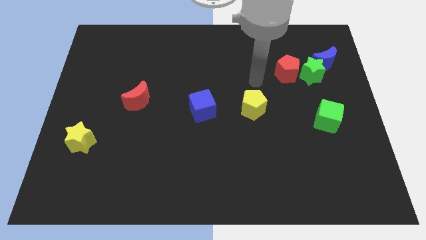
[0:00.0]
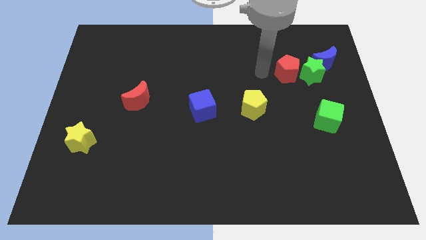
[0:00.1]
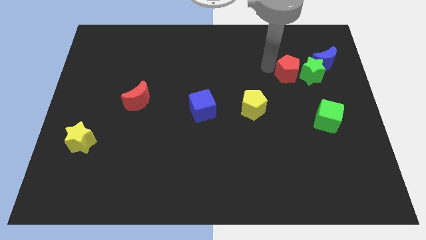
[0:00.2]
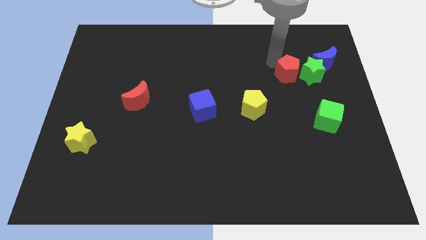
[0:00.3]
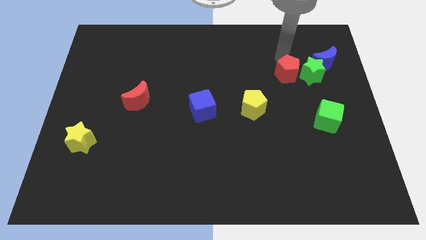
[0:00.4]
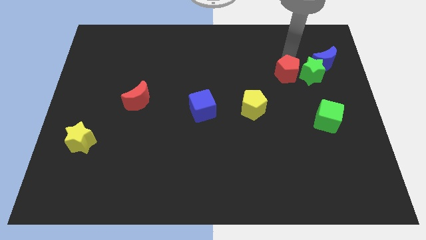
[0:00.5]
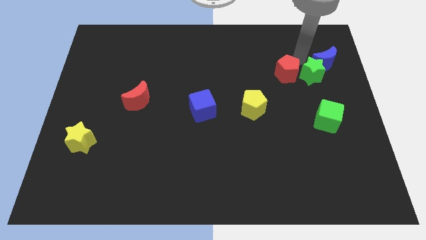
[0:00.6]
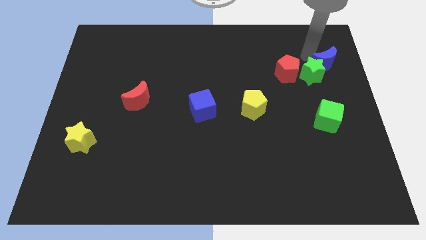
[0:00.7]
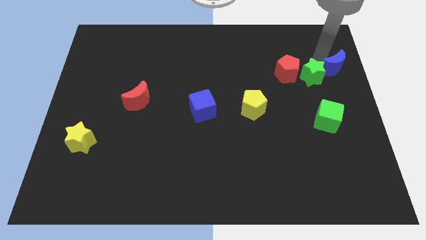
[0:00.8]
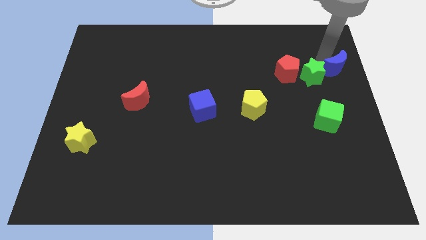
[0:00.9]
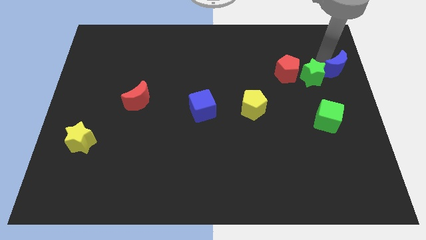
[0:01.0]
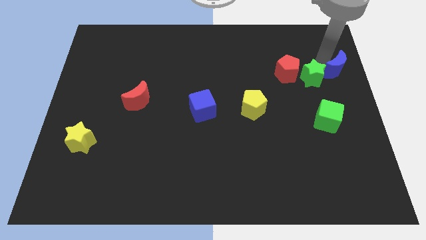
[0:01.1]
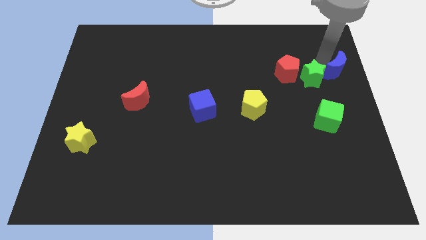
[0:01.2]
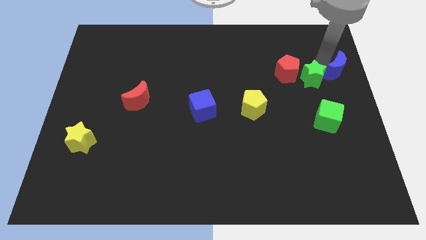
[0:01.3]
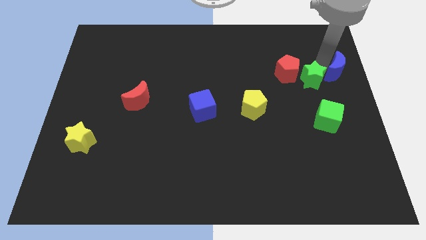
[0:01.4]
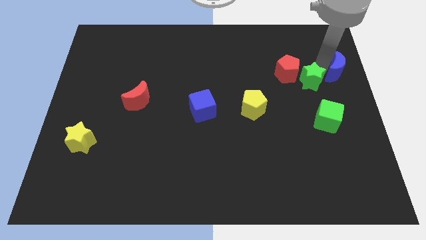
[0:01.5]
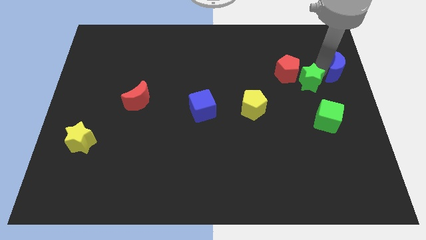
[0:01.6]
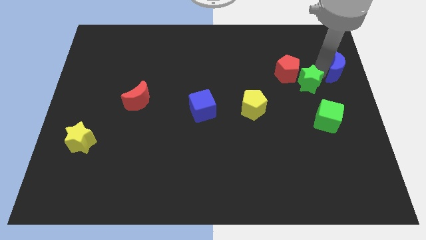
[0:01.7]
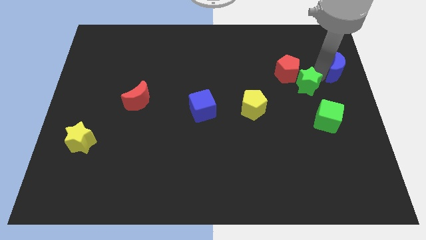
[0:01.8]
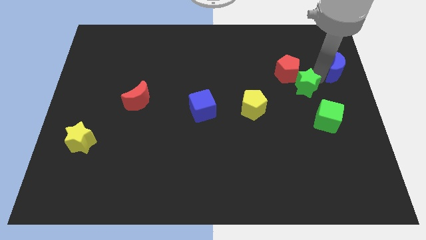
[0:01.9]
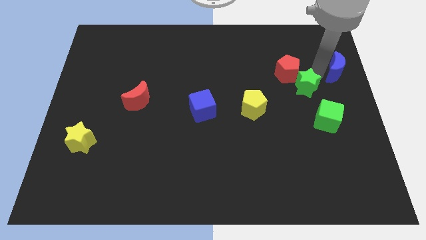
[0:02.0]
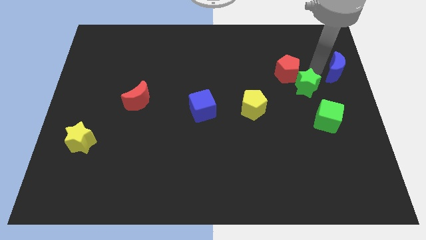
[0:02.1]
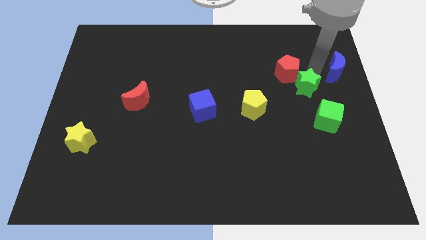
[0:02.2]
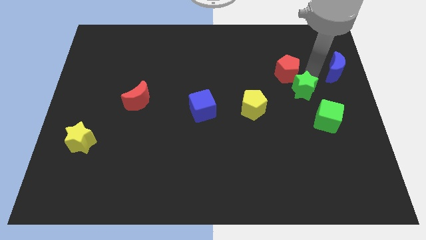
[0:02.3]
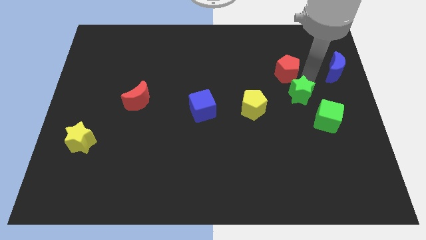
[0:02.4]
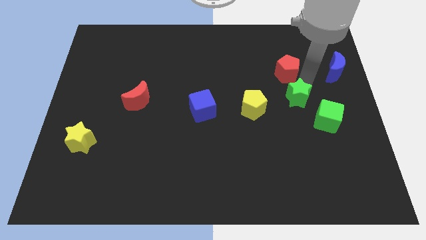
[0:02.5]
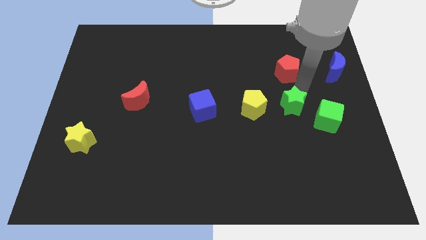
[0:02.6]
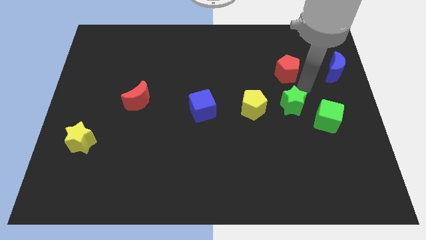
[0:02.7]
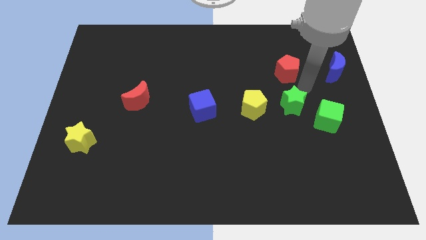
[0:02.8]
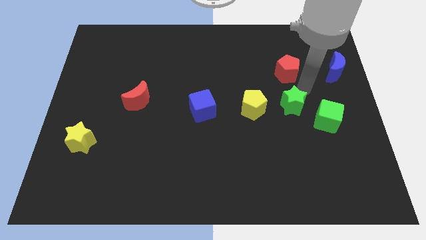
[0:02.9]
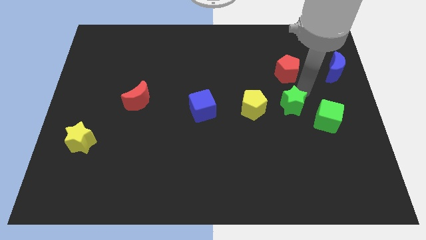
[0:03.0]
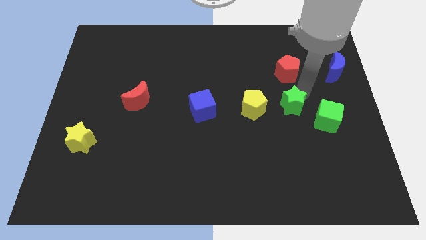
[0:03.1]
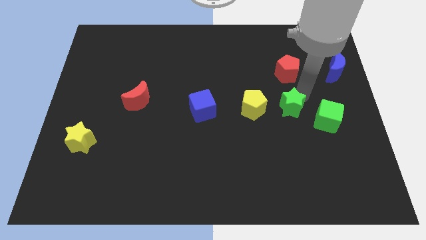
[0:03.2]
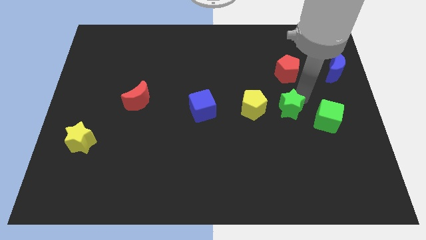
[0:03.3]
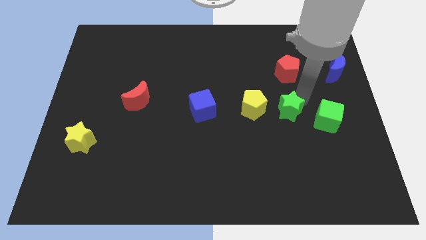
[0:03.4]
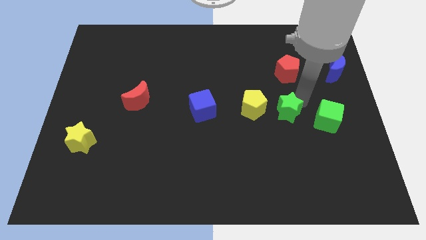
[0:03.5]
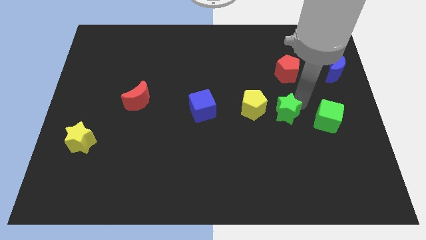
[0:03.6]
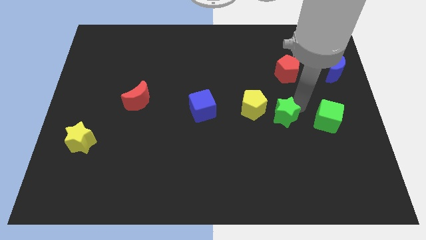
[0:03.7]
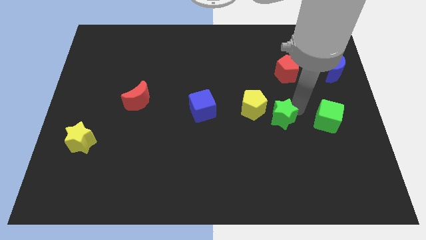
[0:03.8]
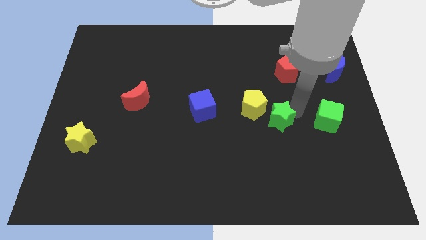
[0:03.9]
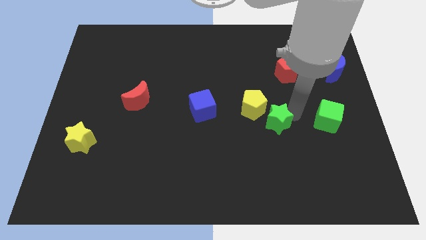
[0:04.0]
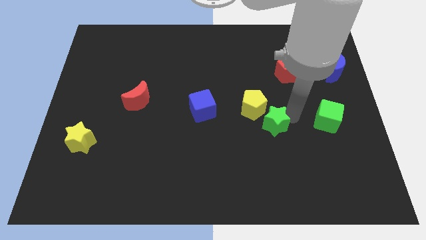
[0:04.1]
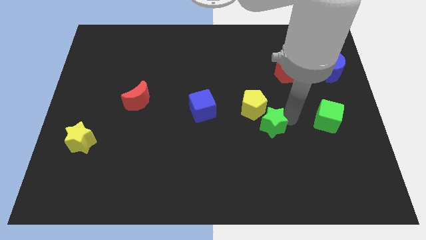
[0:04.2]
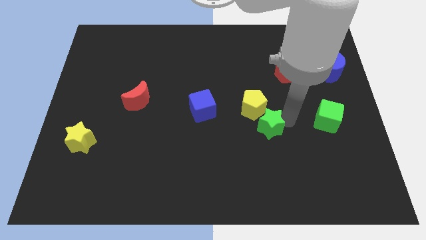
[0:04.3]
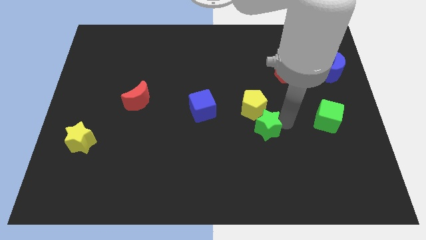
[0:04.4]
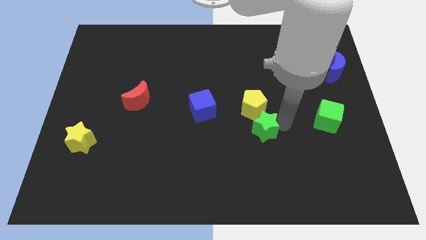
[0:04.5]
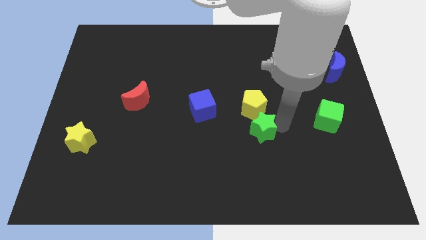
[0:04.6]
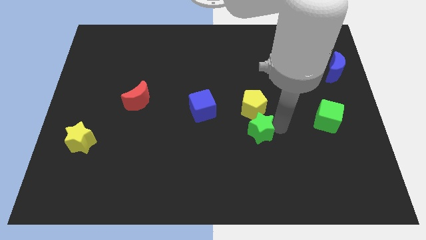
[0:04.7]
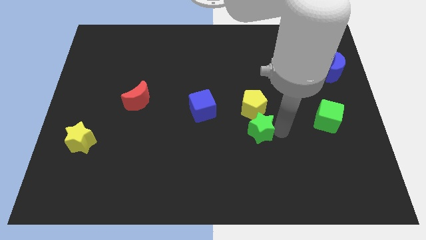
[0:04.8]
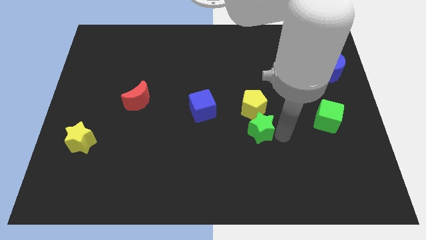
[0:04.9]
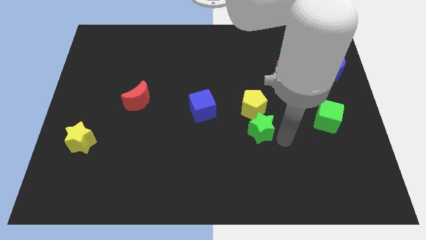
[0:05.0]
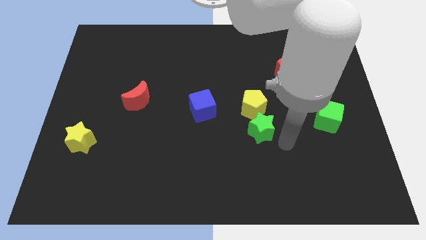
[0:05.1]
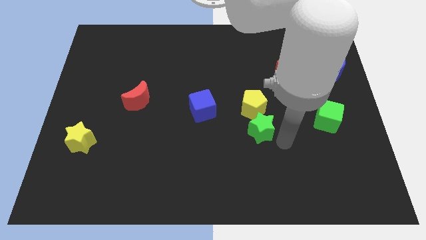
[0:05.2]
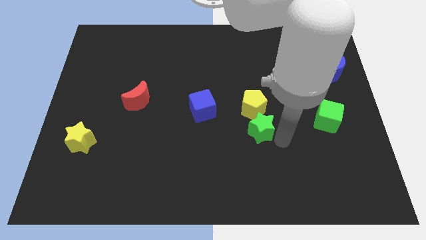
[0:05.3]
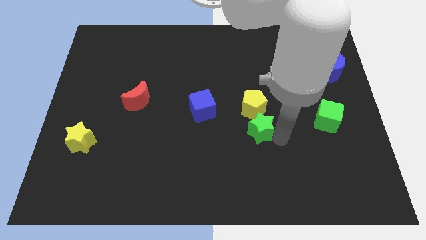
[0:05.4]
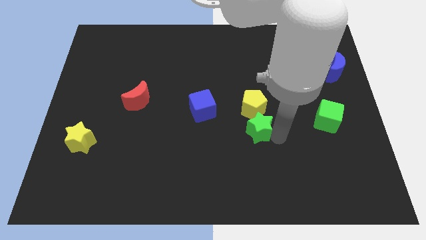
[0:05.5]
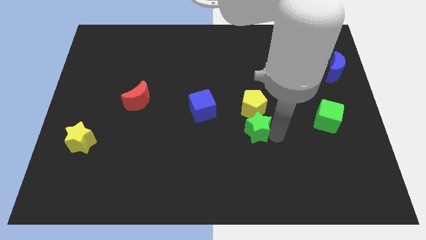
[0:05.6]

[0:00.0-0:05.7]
put the green star to the bottom left side of the yellow pentagon

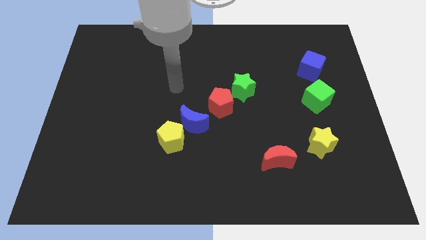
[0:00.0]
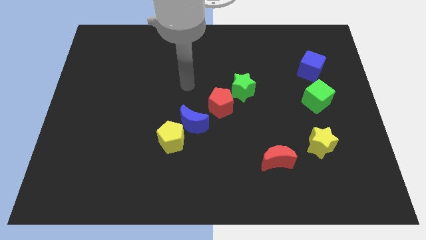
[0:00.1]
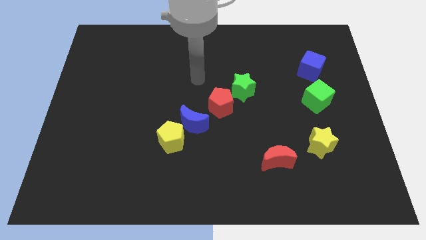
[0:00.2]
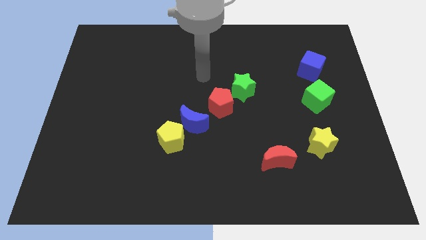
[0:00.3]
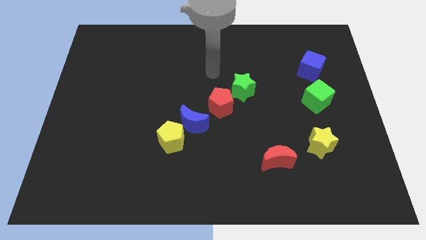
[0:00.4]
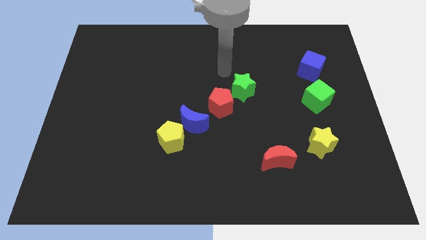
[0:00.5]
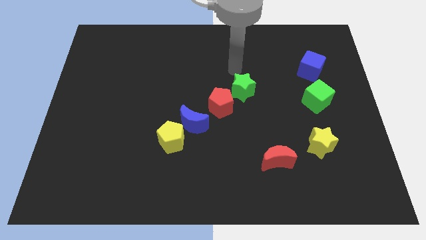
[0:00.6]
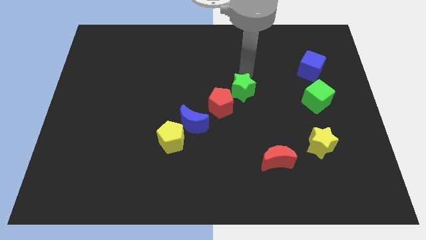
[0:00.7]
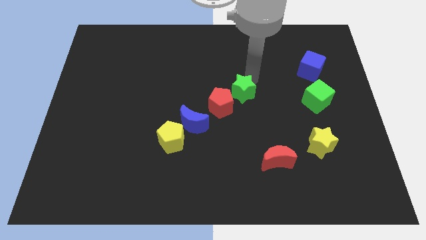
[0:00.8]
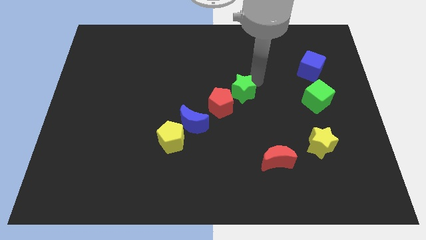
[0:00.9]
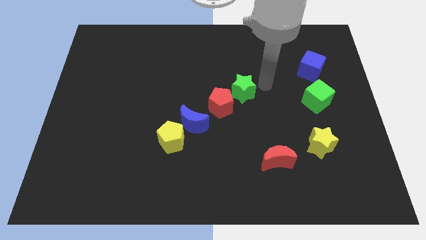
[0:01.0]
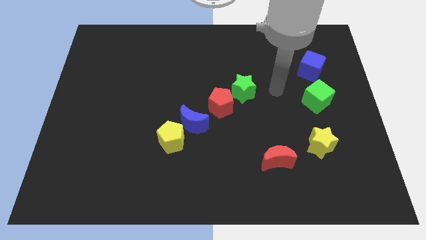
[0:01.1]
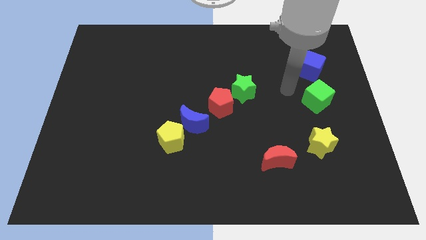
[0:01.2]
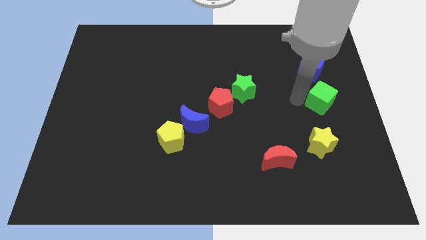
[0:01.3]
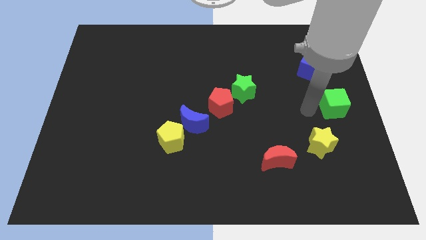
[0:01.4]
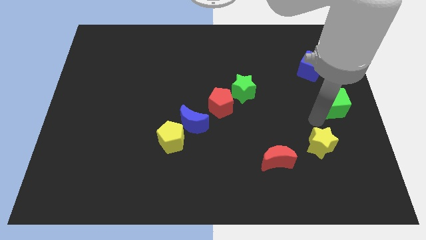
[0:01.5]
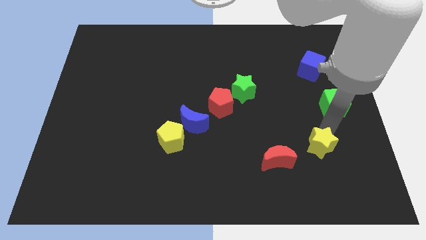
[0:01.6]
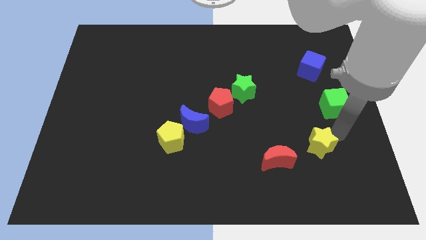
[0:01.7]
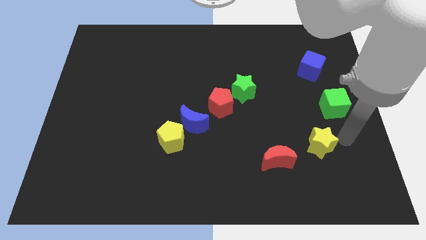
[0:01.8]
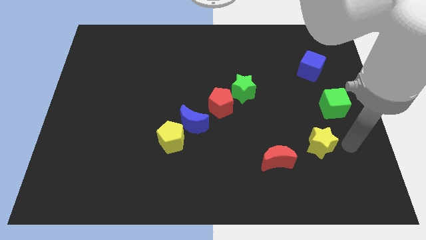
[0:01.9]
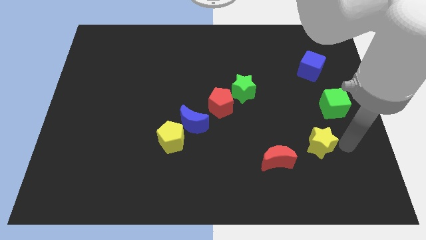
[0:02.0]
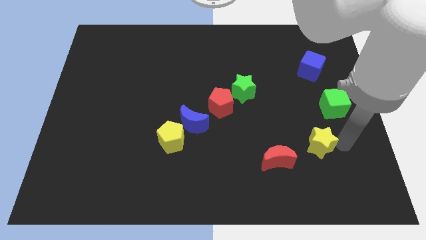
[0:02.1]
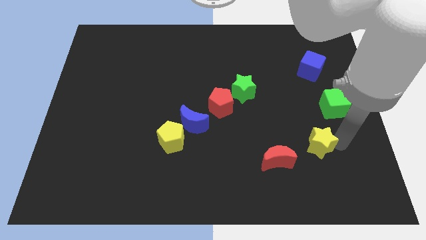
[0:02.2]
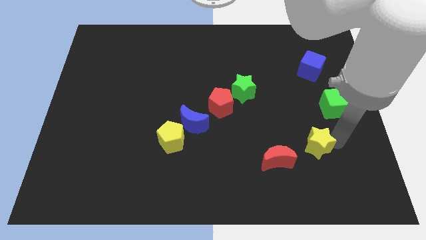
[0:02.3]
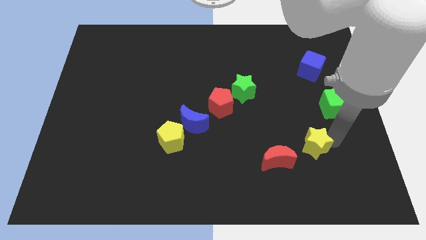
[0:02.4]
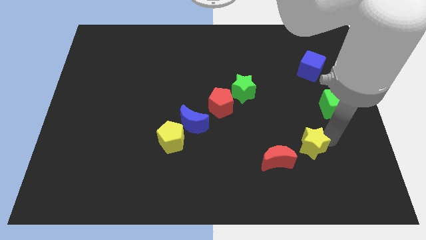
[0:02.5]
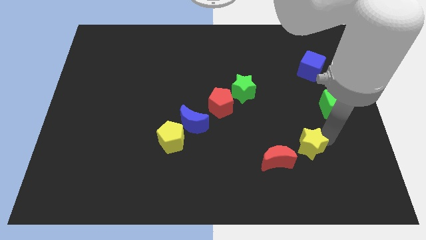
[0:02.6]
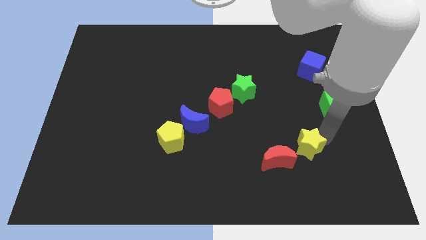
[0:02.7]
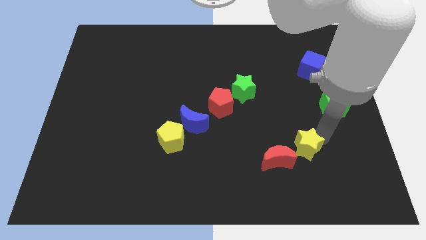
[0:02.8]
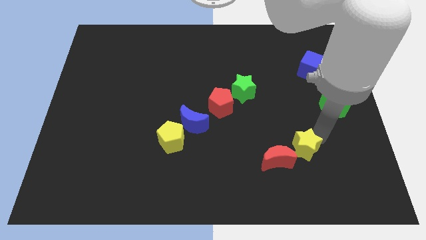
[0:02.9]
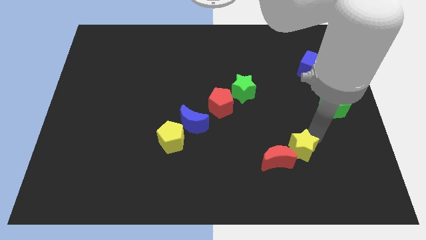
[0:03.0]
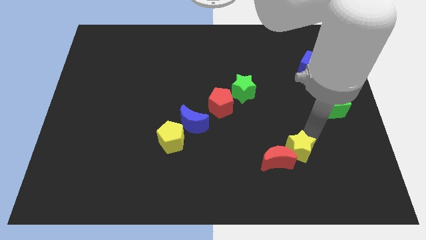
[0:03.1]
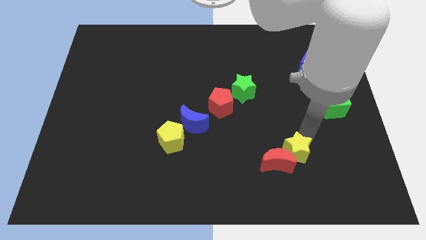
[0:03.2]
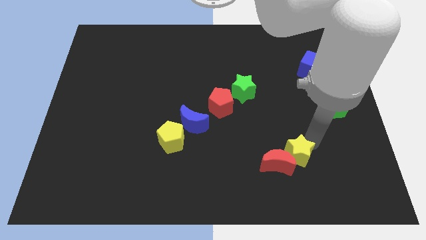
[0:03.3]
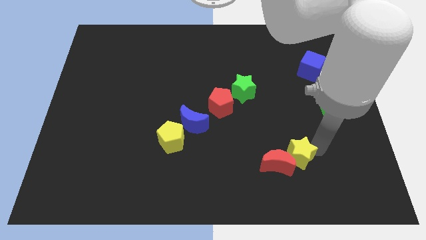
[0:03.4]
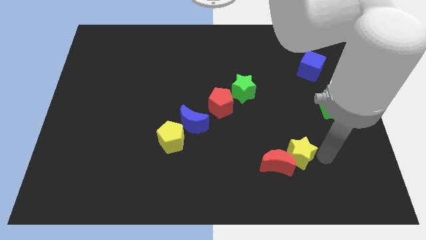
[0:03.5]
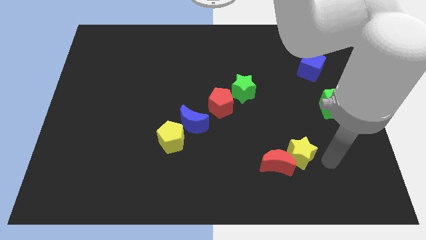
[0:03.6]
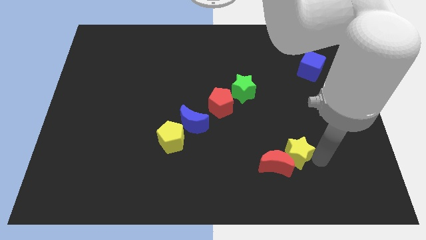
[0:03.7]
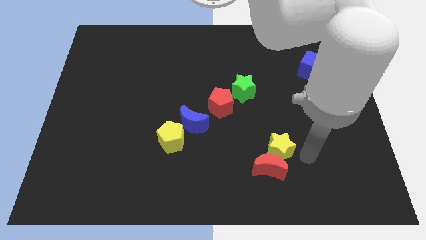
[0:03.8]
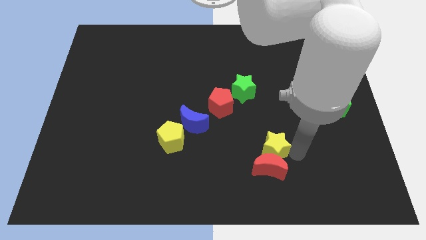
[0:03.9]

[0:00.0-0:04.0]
push the yellow star diagonally up and to the left of the red moon
